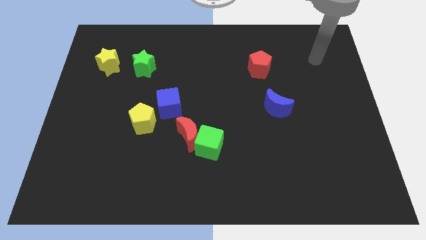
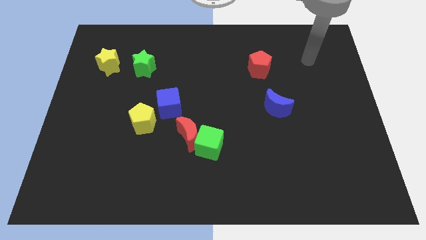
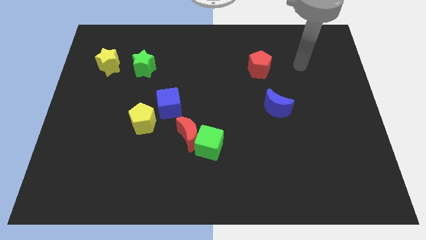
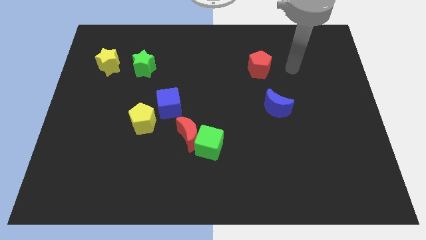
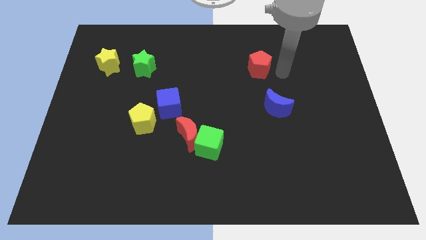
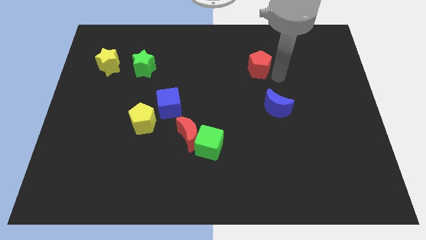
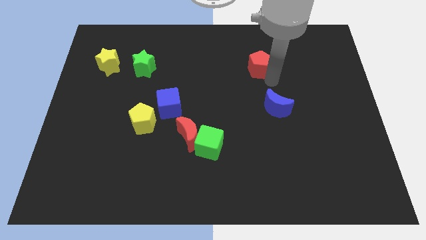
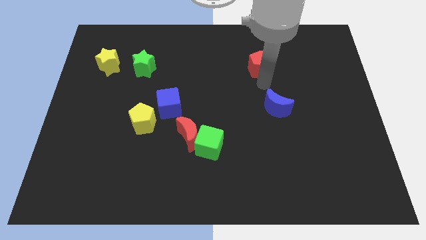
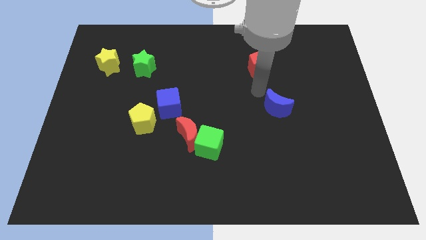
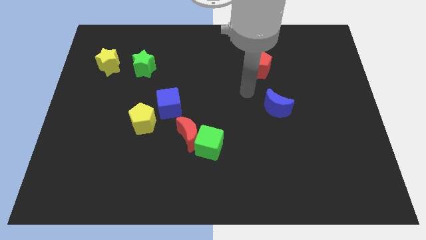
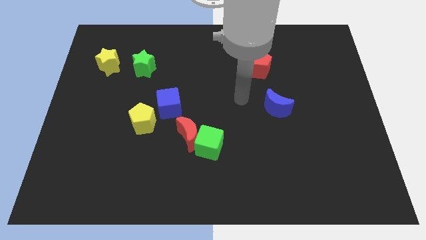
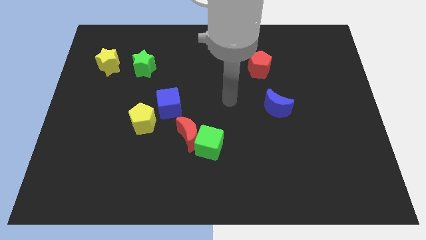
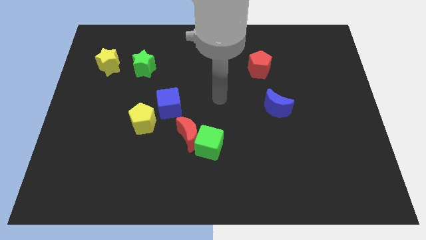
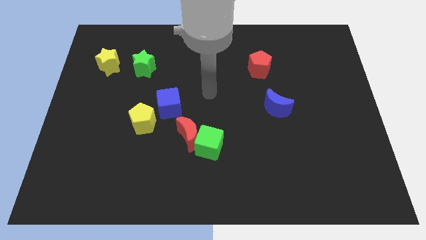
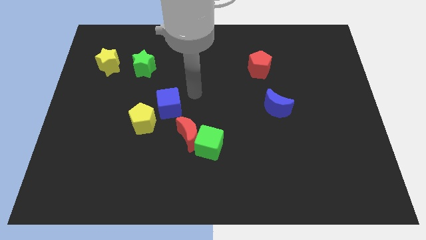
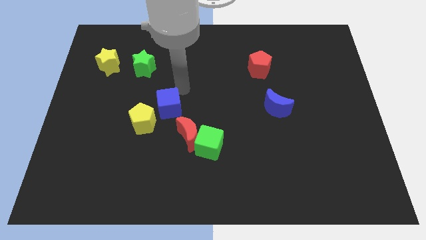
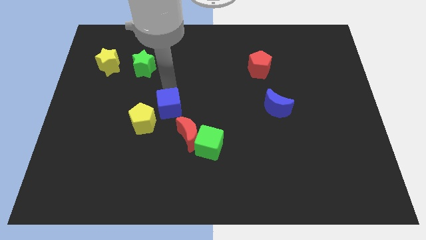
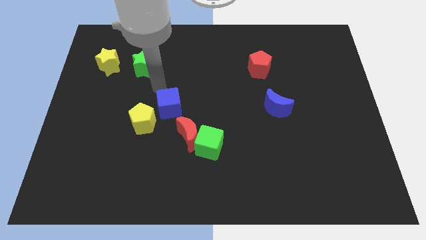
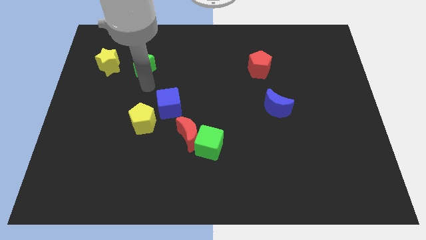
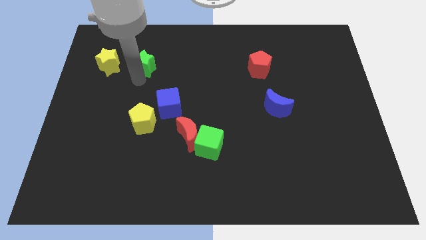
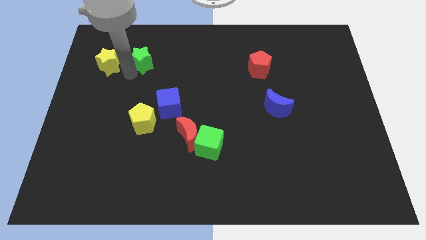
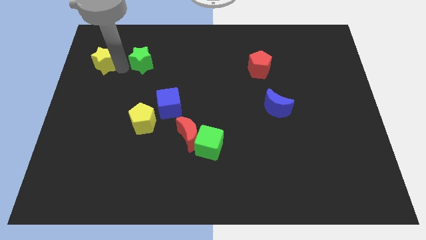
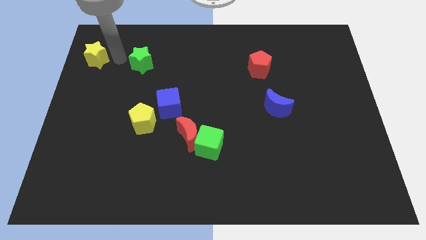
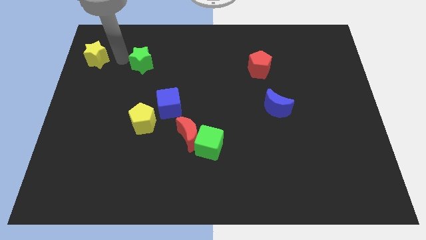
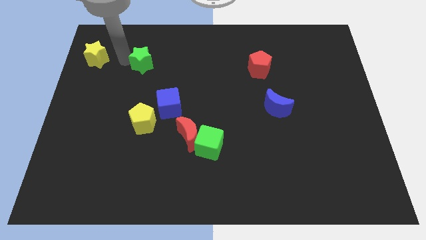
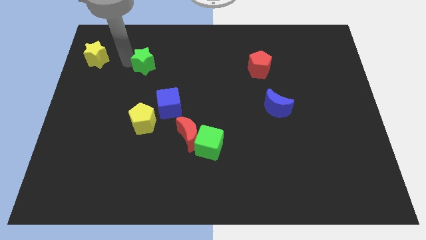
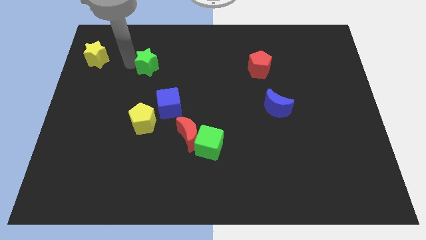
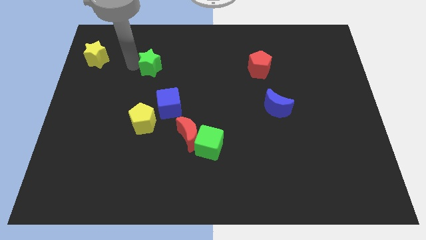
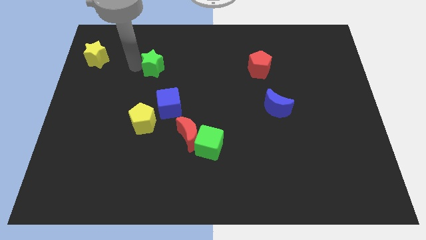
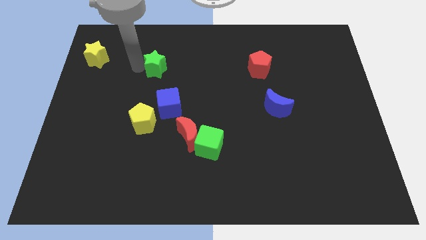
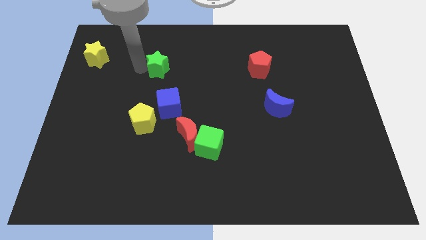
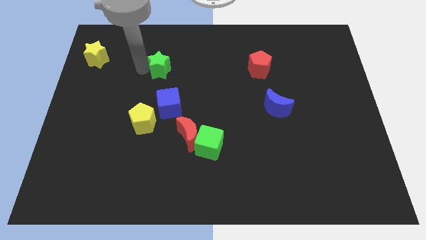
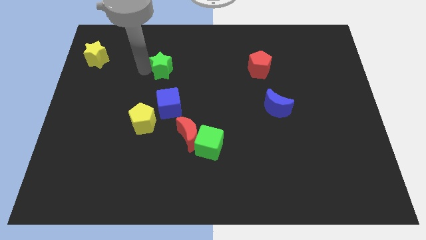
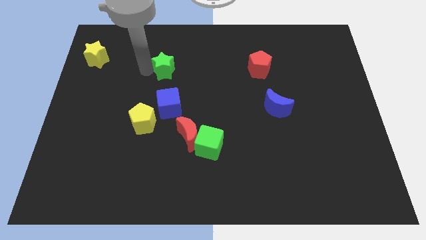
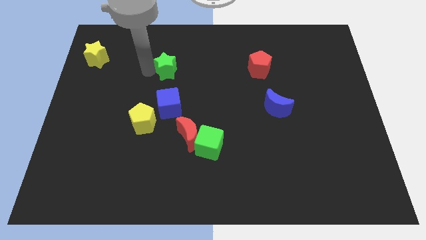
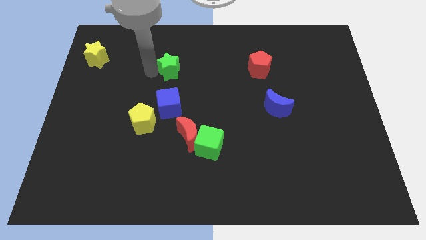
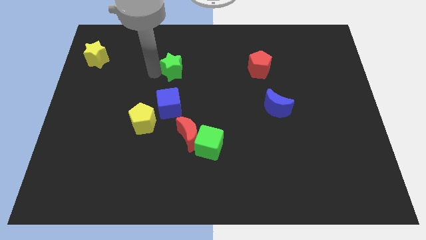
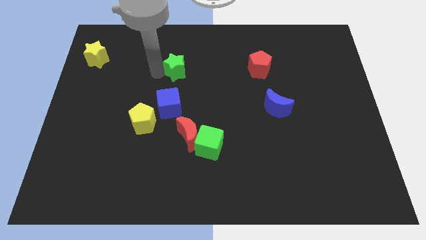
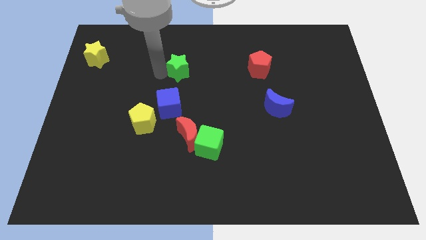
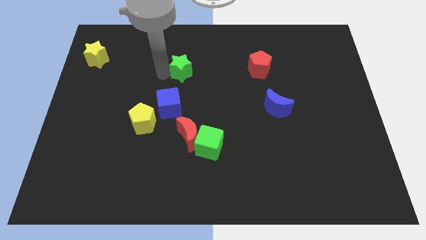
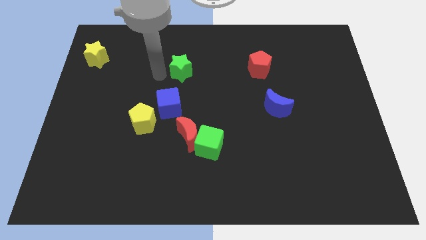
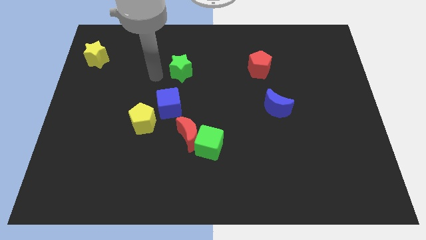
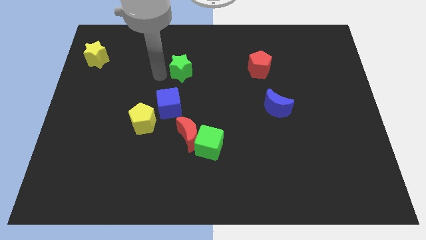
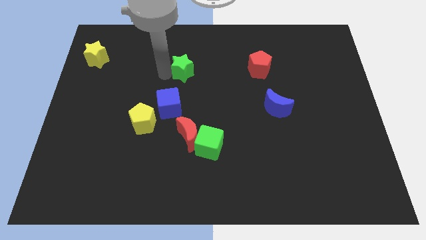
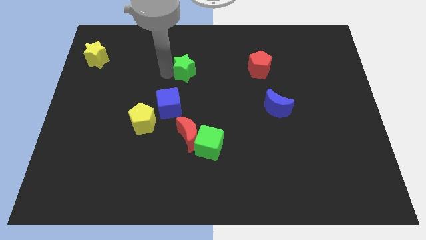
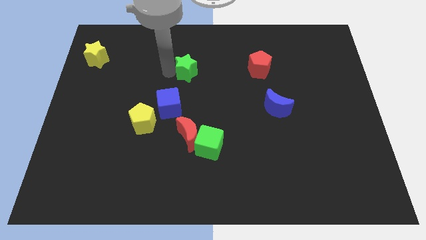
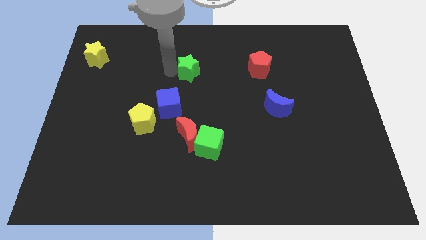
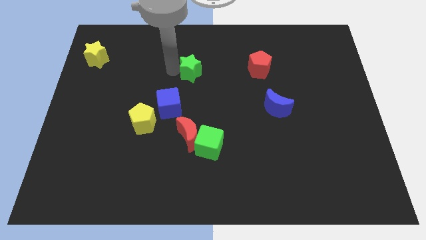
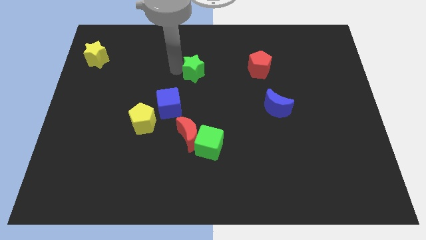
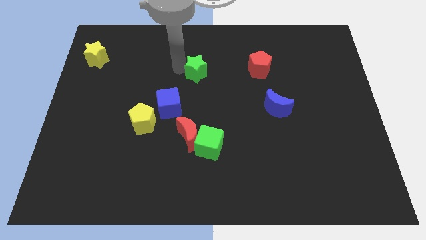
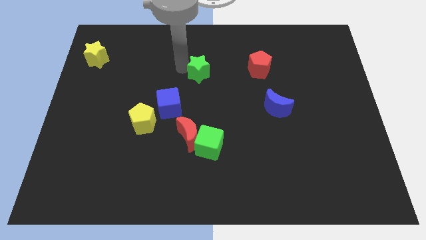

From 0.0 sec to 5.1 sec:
move the green star just left of the red pentagon

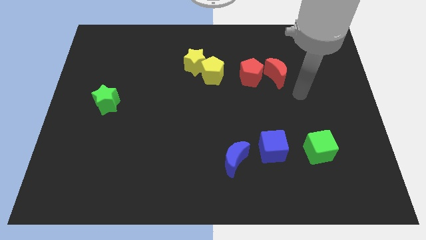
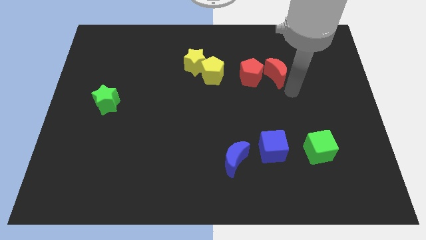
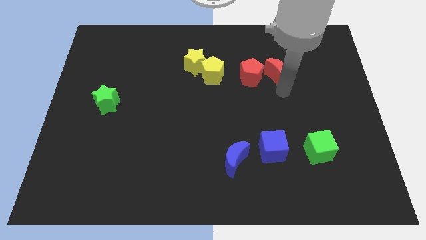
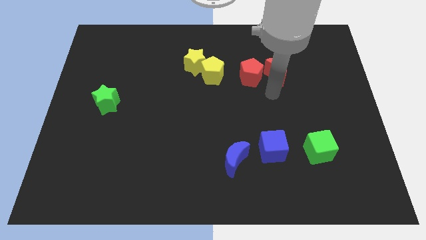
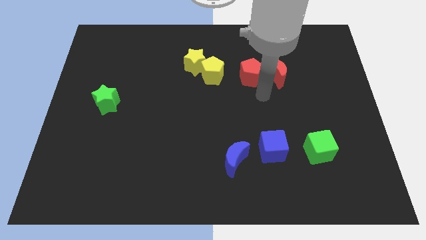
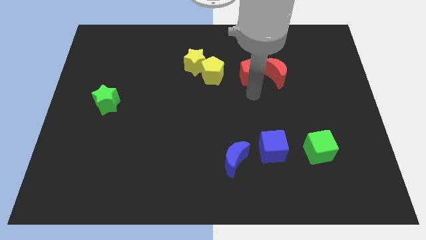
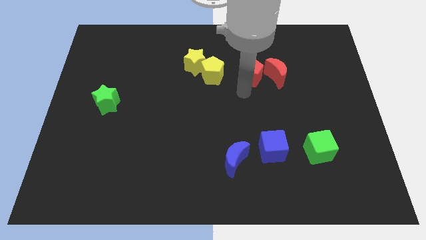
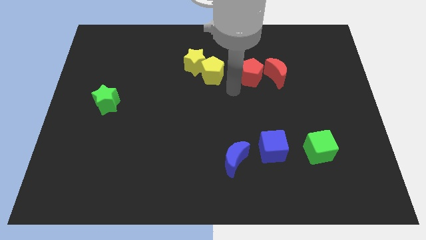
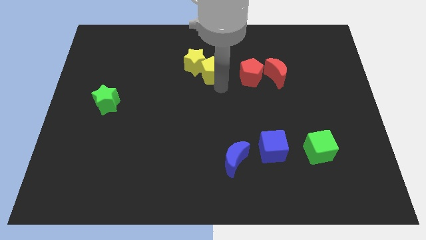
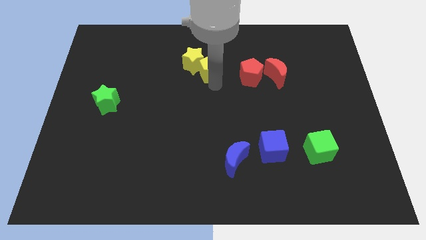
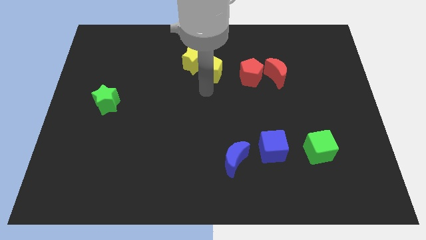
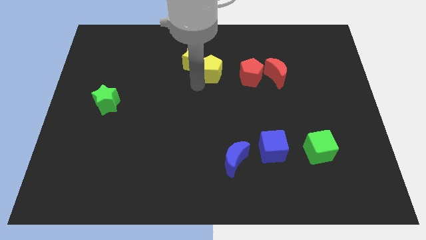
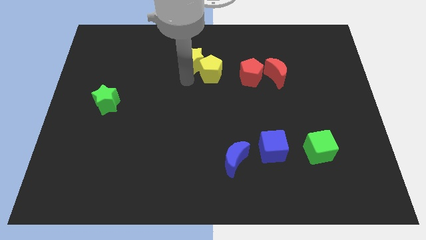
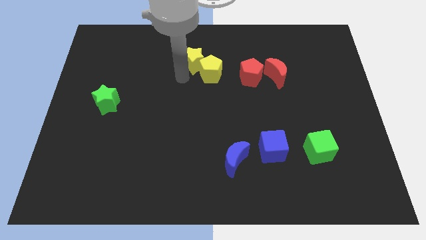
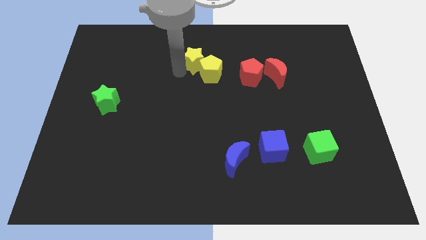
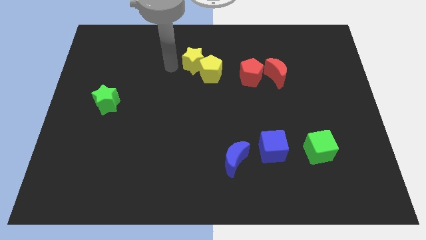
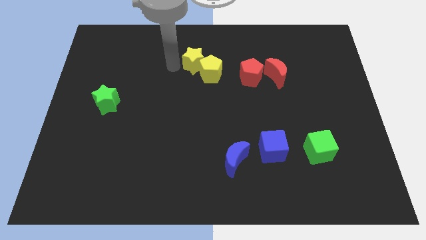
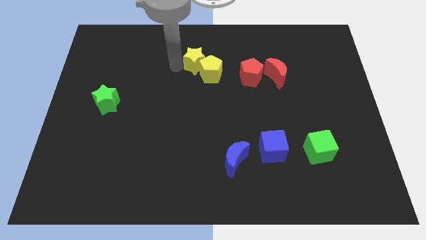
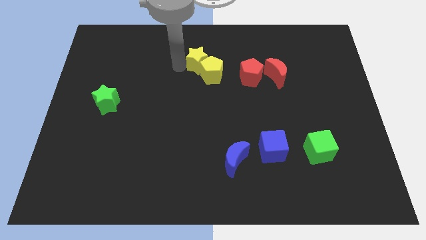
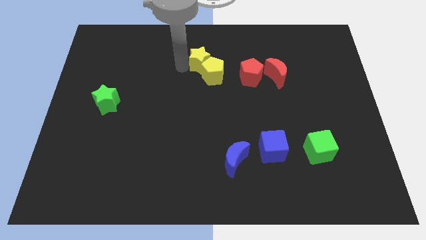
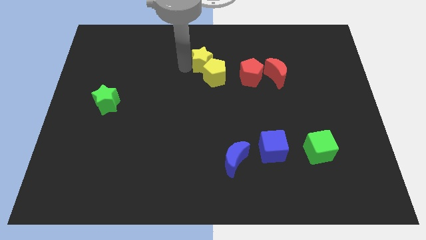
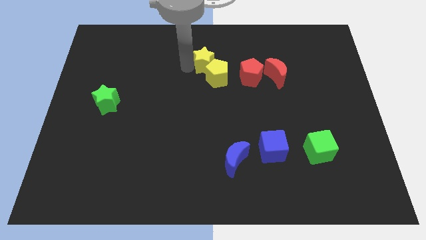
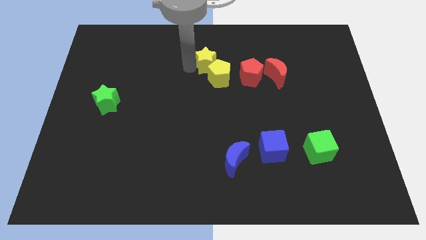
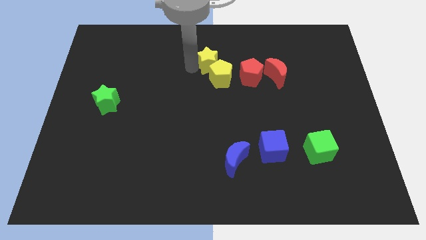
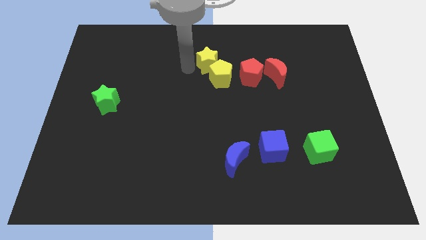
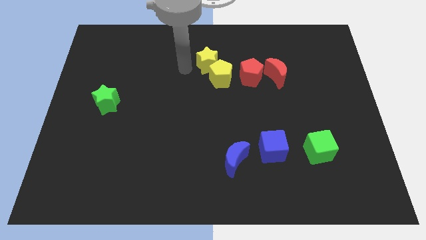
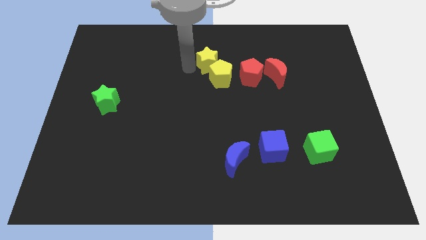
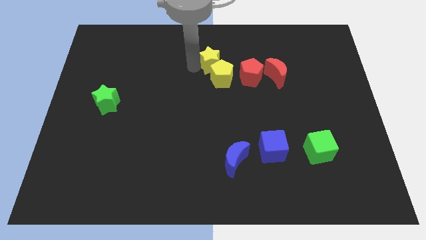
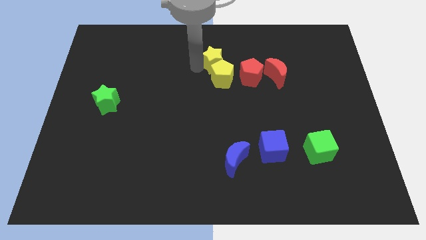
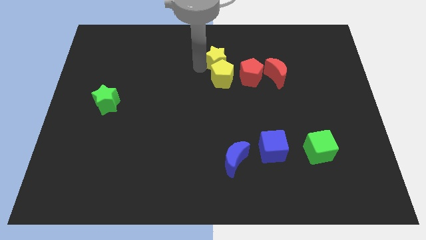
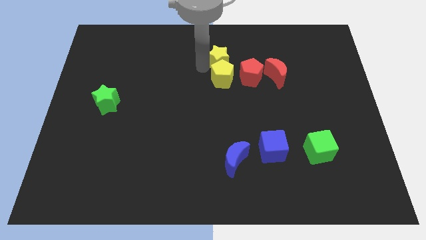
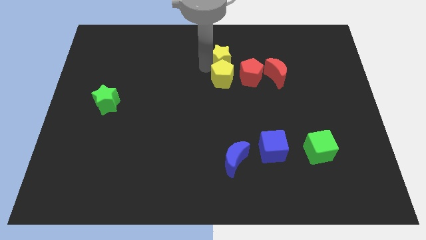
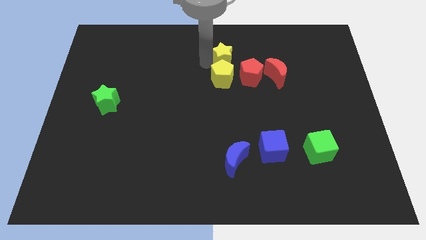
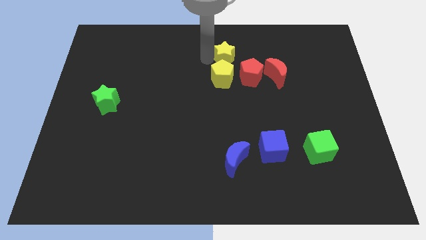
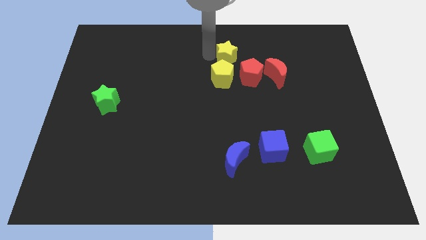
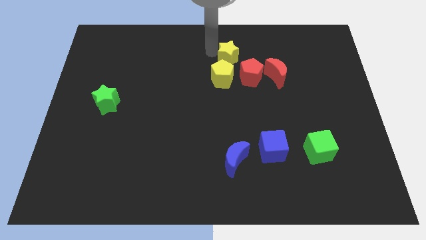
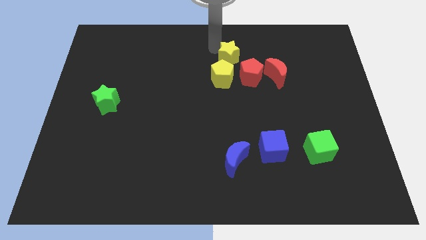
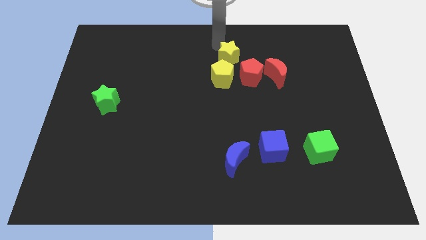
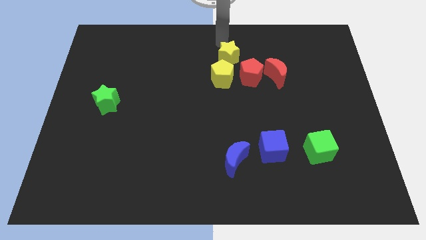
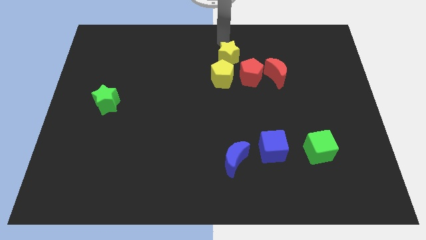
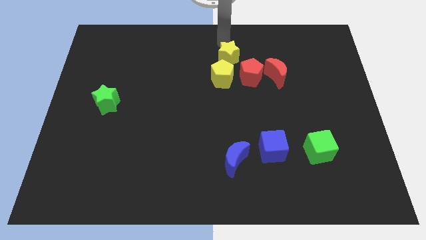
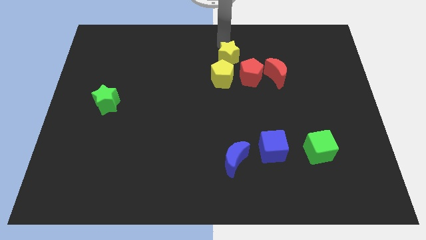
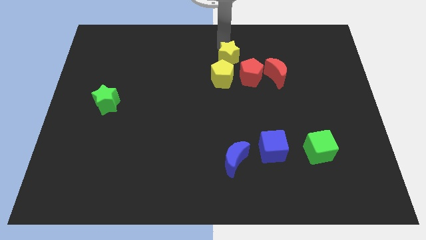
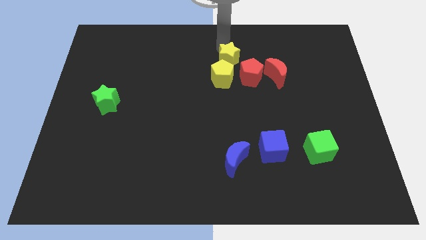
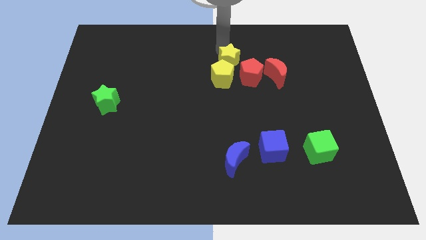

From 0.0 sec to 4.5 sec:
push the yellow star to the left side of the red moon
